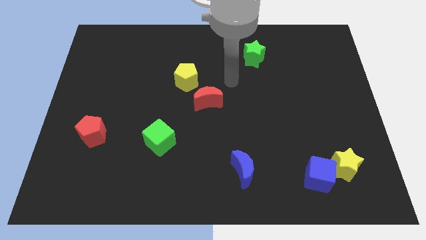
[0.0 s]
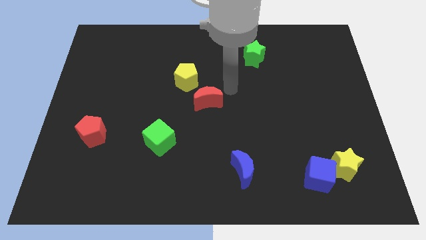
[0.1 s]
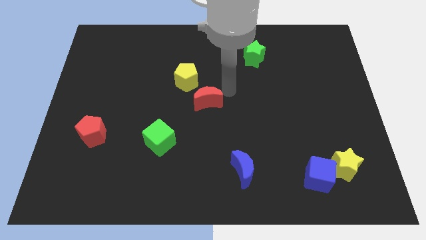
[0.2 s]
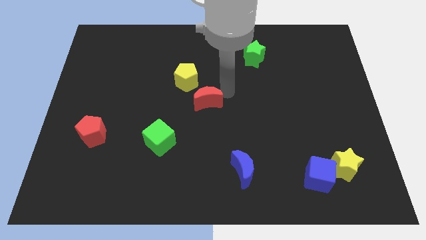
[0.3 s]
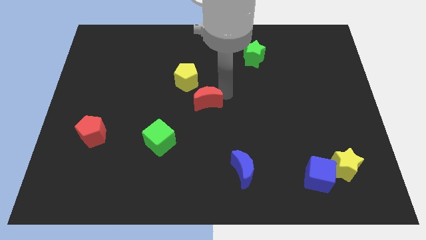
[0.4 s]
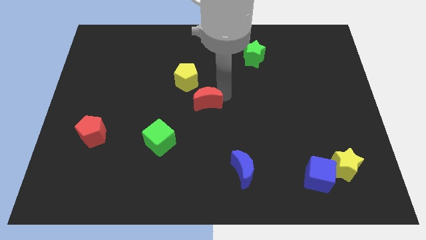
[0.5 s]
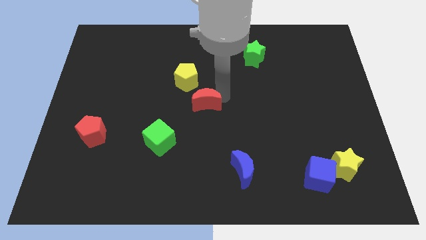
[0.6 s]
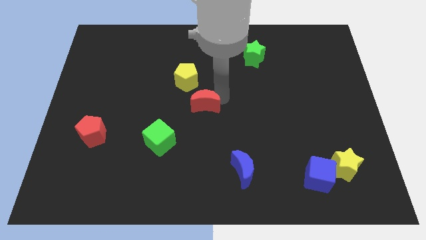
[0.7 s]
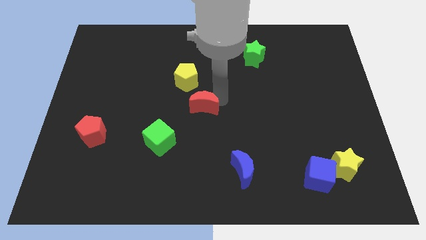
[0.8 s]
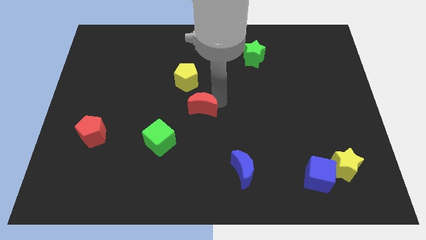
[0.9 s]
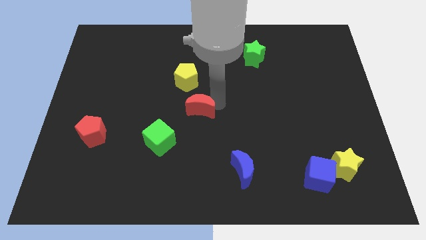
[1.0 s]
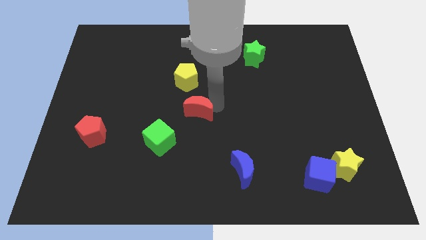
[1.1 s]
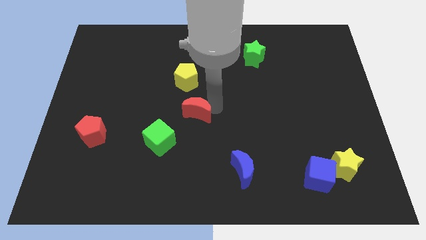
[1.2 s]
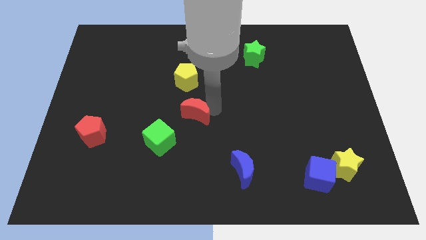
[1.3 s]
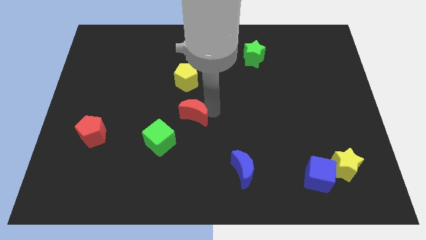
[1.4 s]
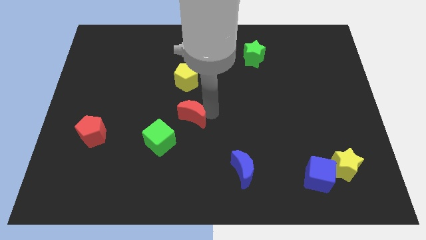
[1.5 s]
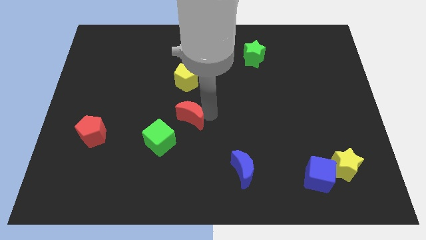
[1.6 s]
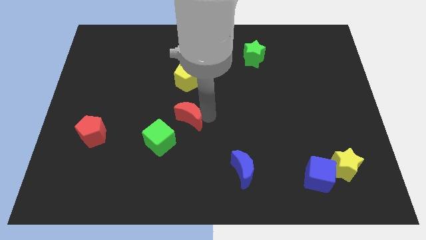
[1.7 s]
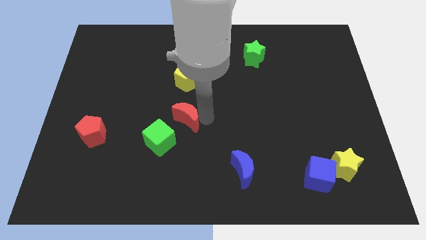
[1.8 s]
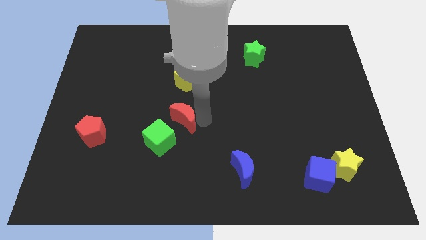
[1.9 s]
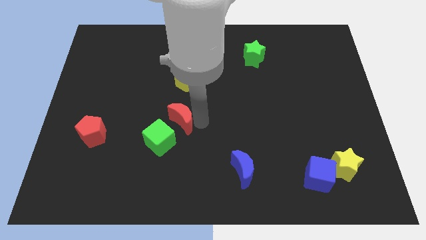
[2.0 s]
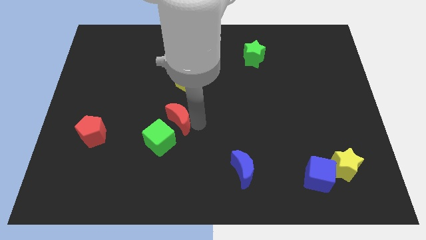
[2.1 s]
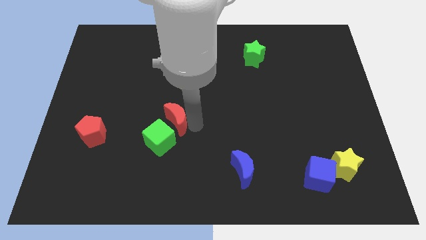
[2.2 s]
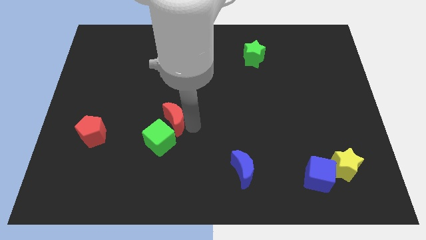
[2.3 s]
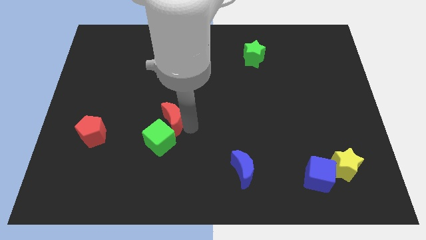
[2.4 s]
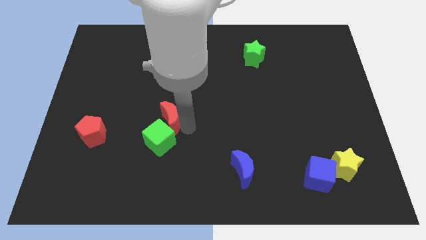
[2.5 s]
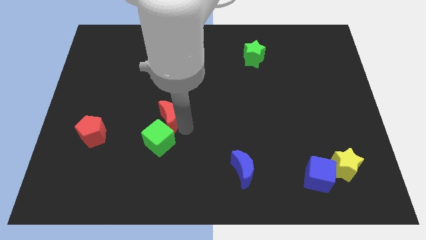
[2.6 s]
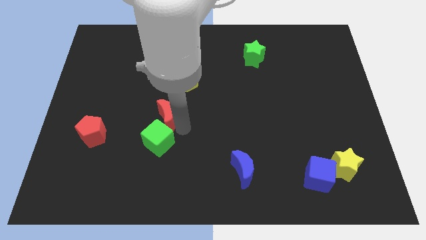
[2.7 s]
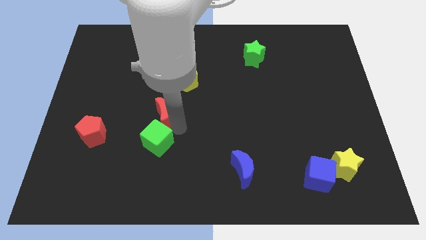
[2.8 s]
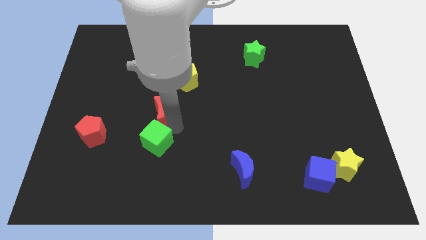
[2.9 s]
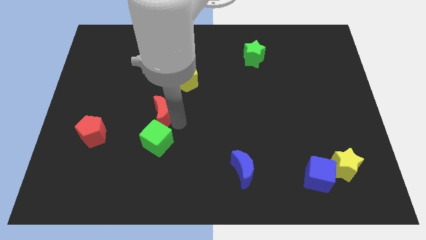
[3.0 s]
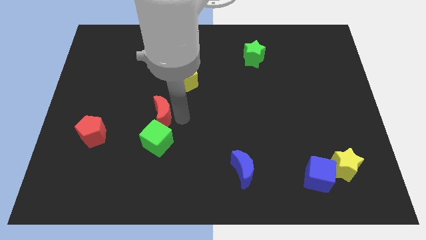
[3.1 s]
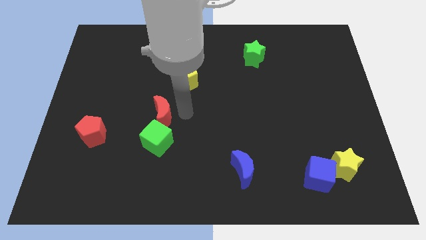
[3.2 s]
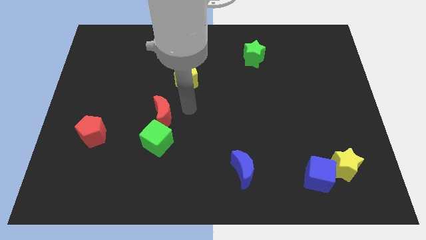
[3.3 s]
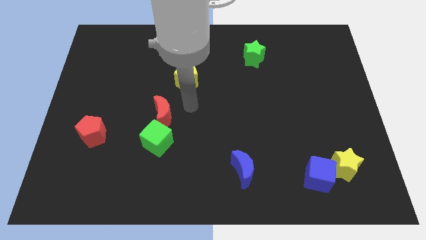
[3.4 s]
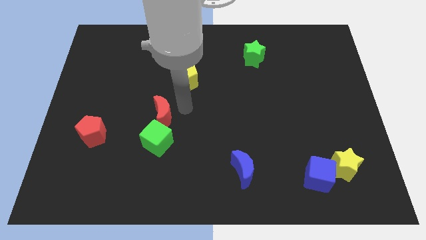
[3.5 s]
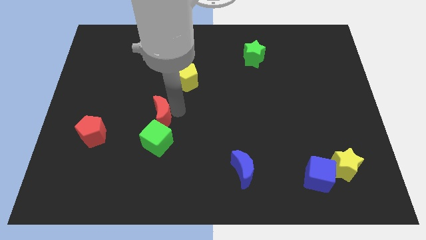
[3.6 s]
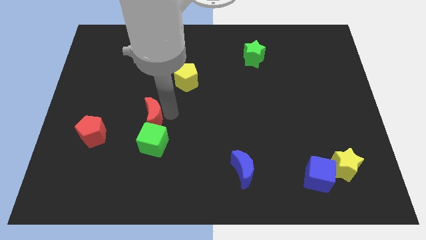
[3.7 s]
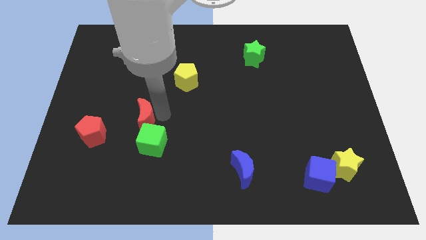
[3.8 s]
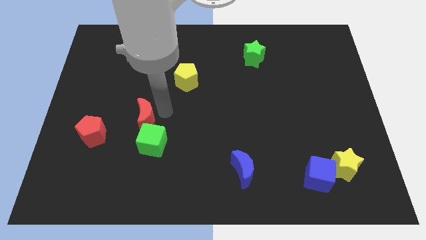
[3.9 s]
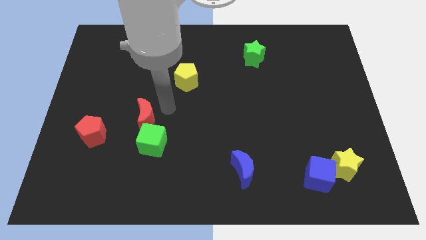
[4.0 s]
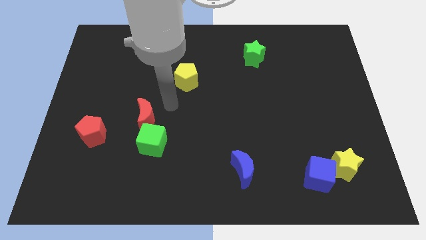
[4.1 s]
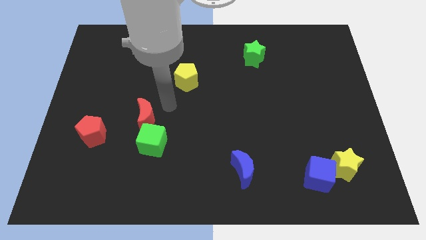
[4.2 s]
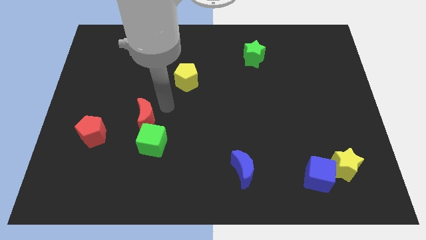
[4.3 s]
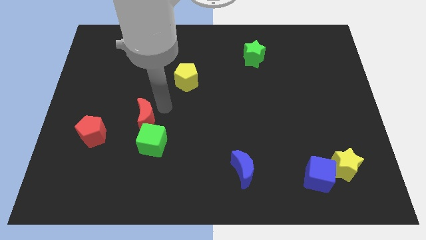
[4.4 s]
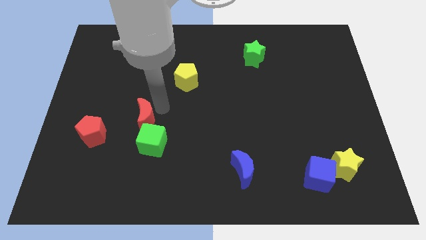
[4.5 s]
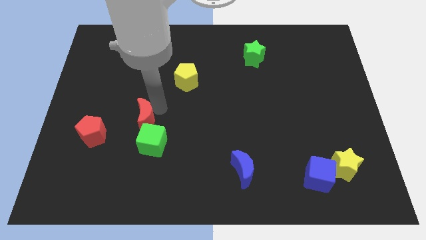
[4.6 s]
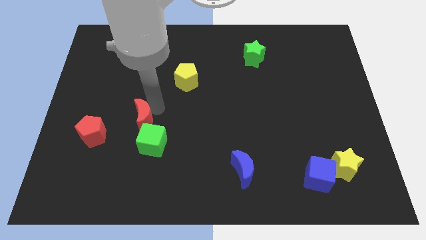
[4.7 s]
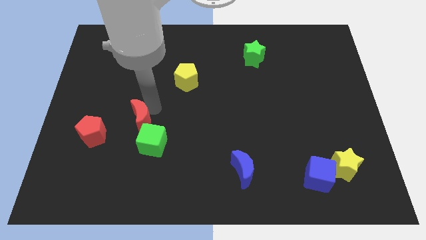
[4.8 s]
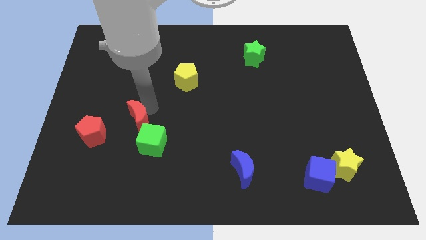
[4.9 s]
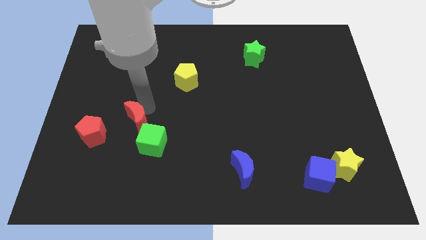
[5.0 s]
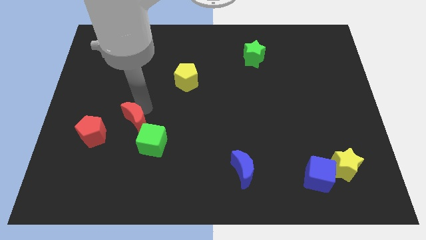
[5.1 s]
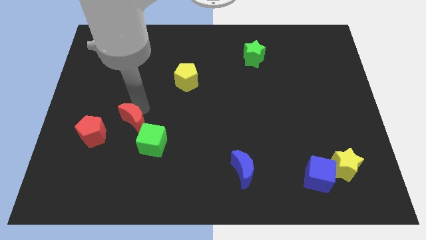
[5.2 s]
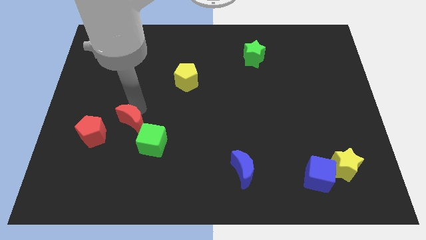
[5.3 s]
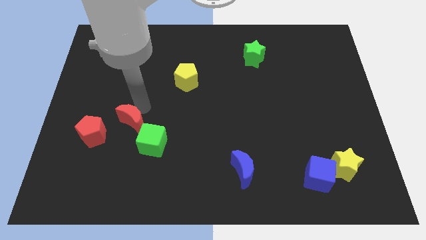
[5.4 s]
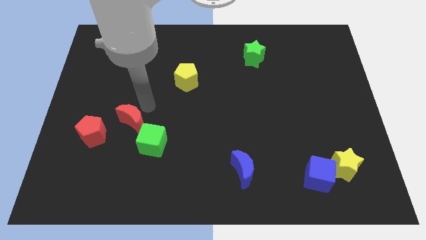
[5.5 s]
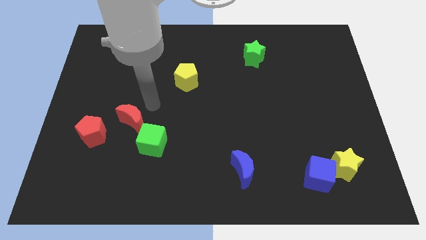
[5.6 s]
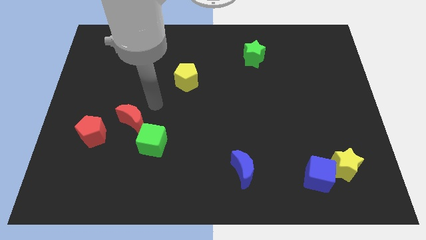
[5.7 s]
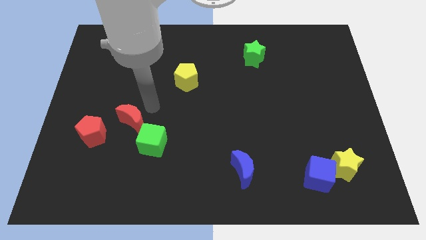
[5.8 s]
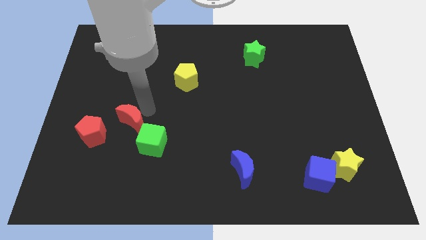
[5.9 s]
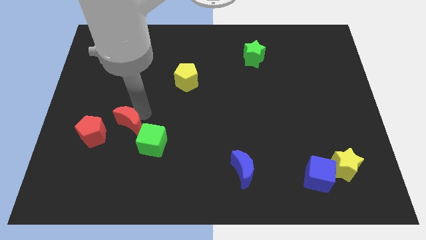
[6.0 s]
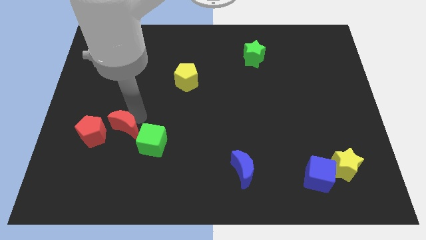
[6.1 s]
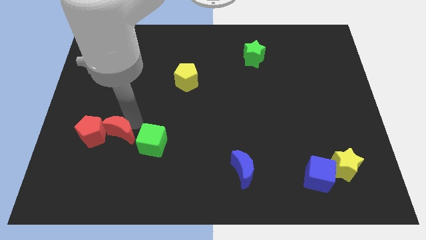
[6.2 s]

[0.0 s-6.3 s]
push the red moon close to the red pentagon

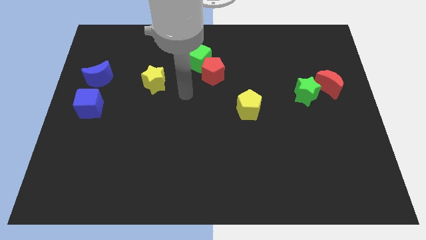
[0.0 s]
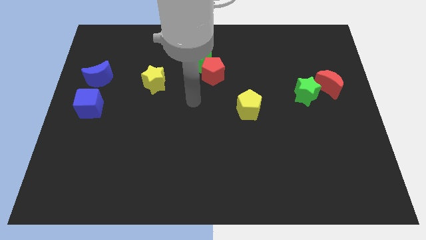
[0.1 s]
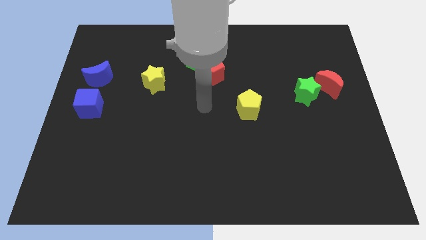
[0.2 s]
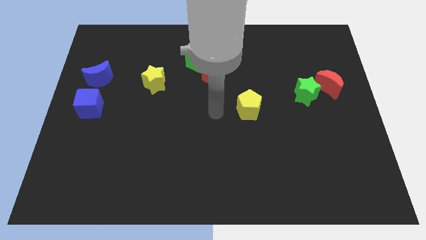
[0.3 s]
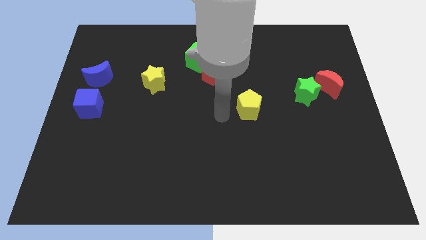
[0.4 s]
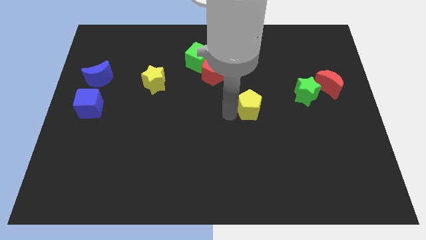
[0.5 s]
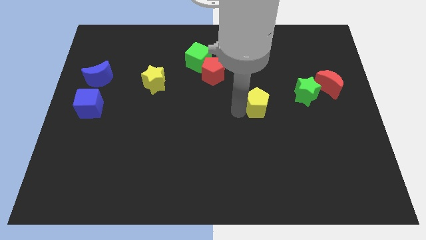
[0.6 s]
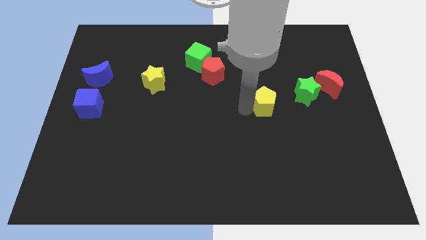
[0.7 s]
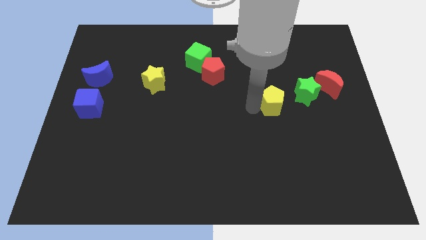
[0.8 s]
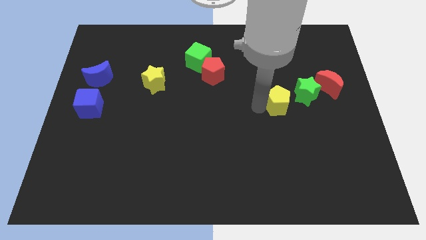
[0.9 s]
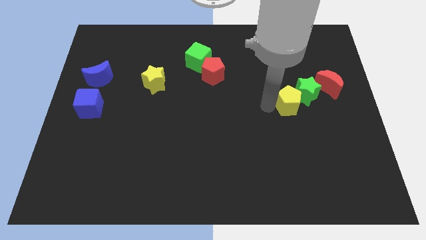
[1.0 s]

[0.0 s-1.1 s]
push the yellow pentagon towards the green star
